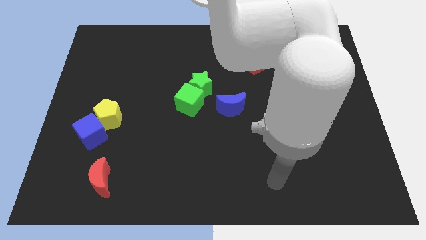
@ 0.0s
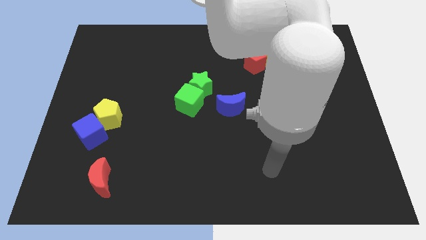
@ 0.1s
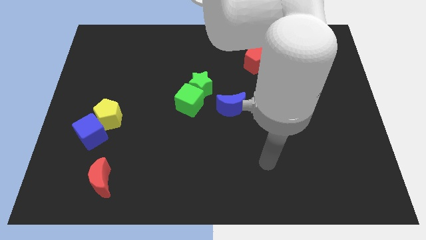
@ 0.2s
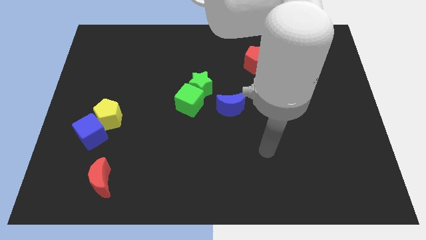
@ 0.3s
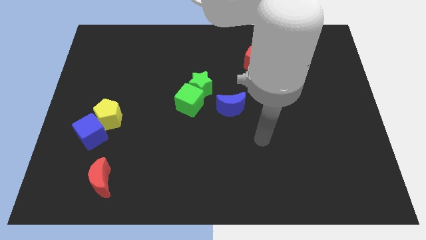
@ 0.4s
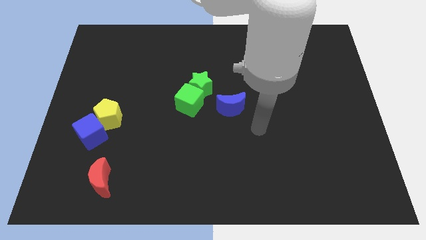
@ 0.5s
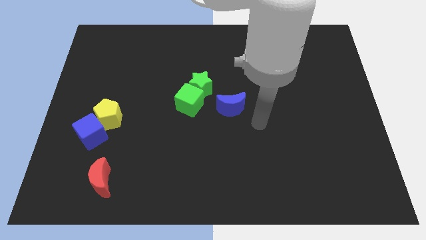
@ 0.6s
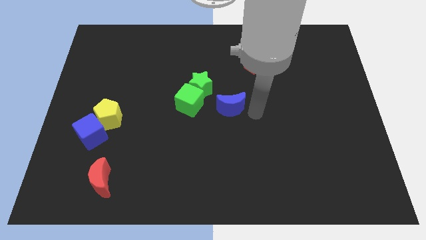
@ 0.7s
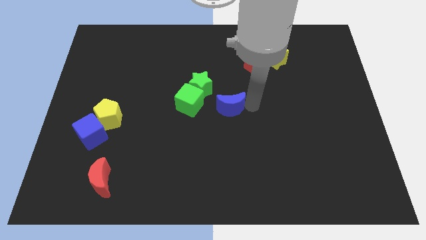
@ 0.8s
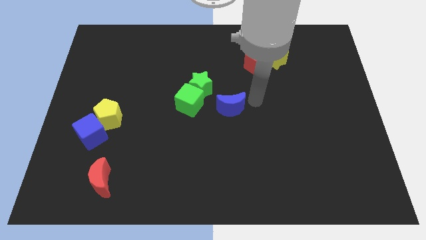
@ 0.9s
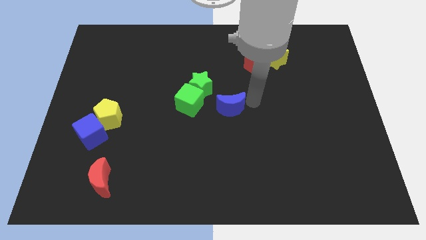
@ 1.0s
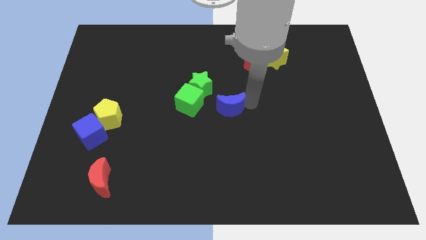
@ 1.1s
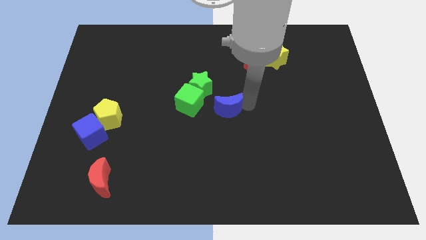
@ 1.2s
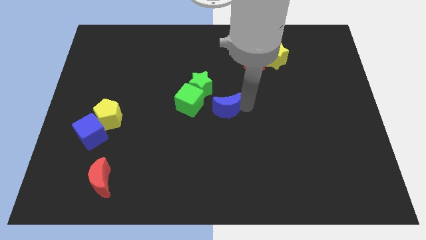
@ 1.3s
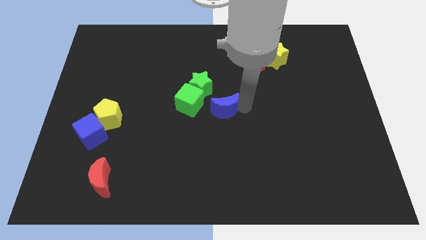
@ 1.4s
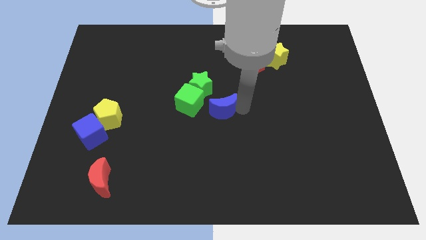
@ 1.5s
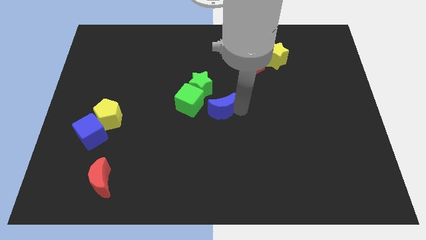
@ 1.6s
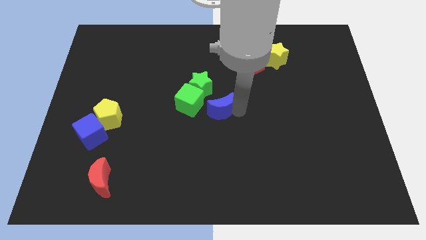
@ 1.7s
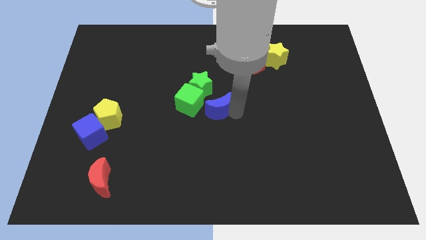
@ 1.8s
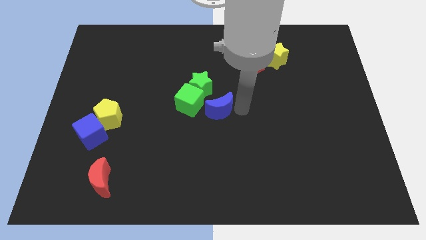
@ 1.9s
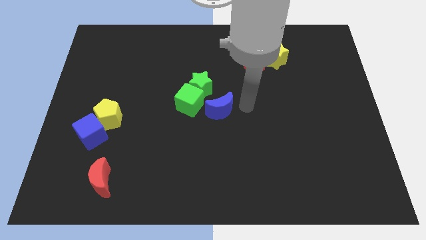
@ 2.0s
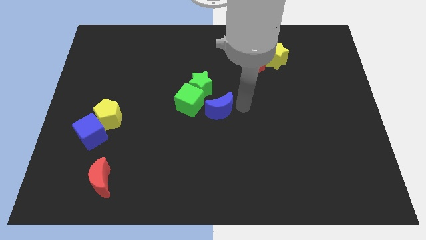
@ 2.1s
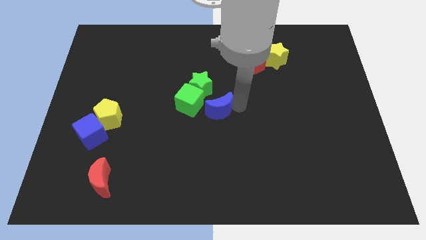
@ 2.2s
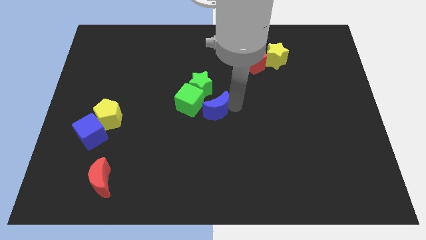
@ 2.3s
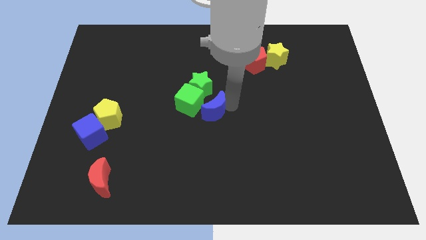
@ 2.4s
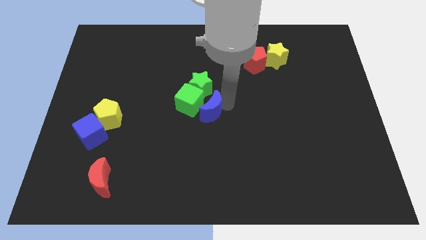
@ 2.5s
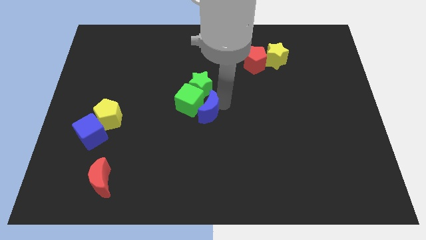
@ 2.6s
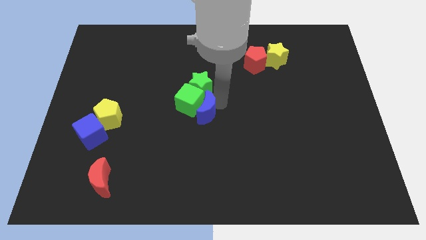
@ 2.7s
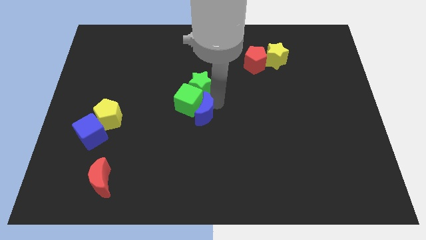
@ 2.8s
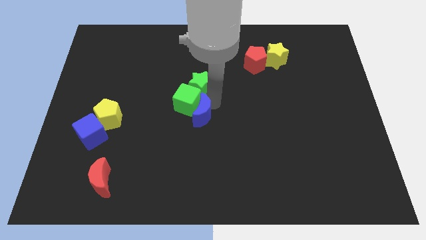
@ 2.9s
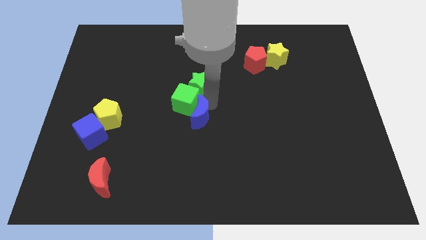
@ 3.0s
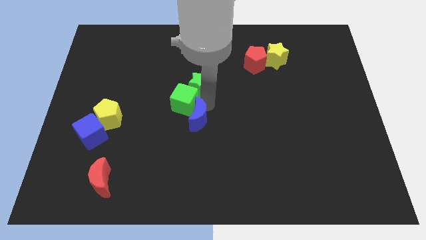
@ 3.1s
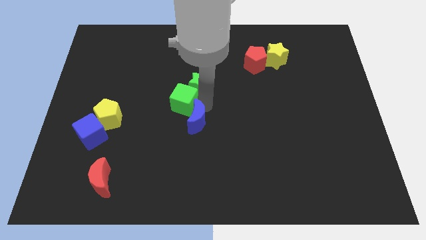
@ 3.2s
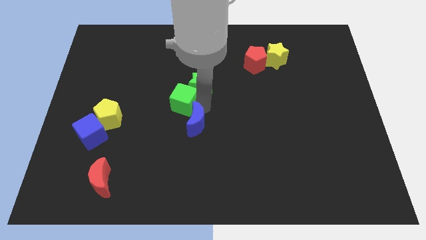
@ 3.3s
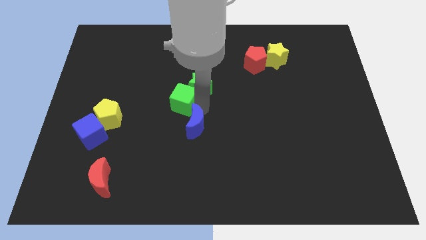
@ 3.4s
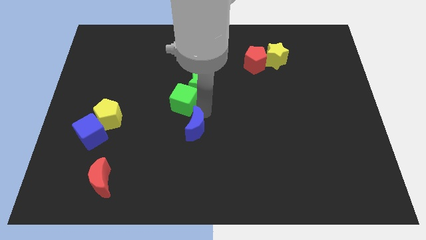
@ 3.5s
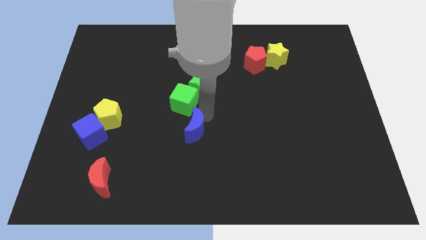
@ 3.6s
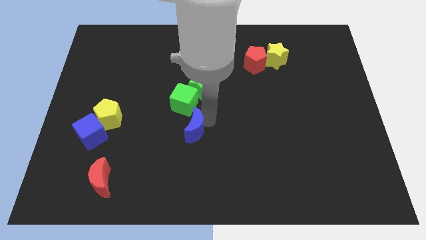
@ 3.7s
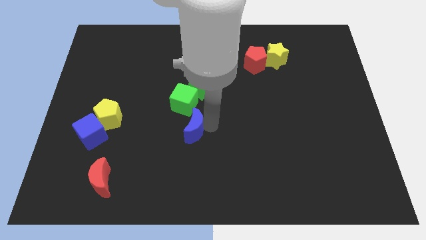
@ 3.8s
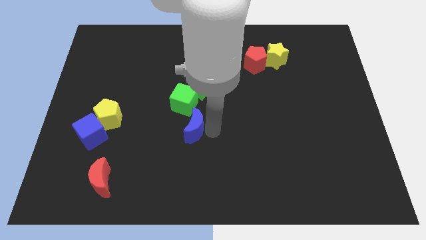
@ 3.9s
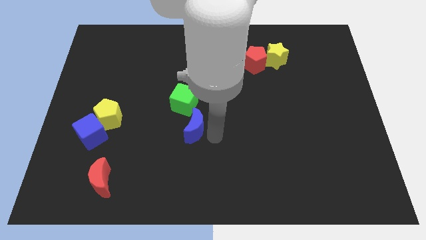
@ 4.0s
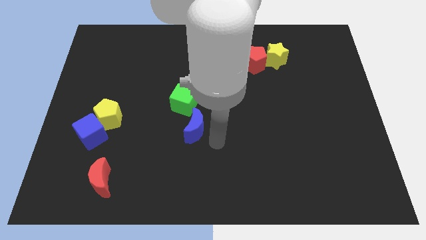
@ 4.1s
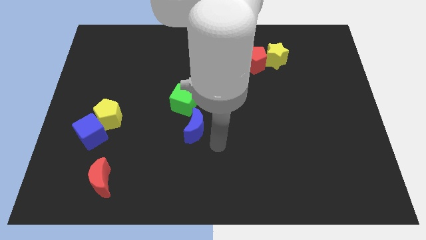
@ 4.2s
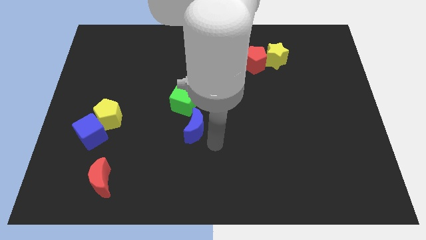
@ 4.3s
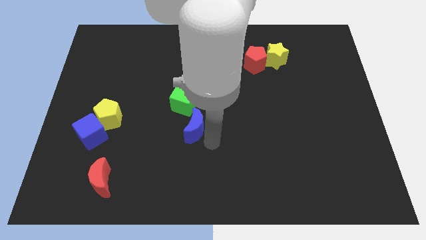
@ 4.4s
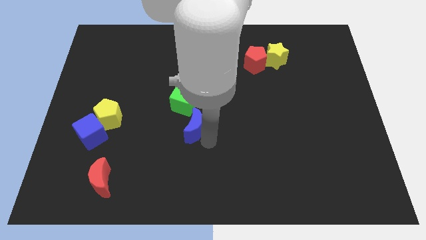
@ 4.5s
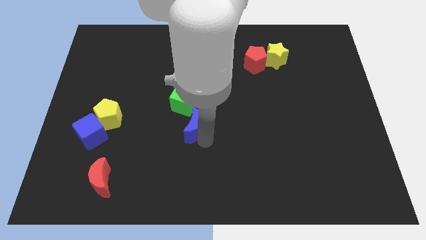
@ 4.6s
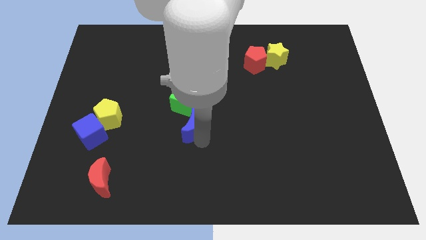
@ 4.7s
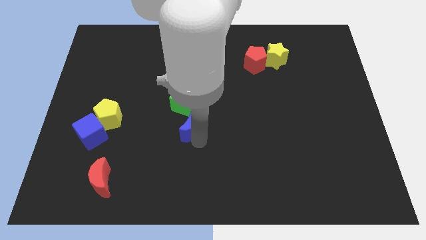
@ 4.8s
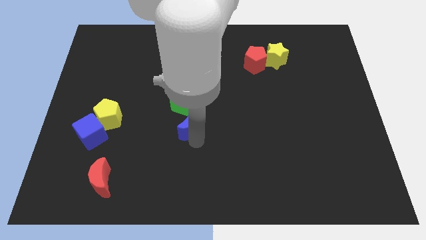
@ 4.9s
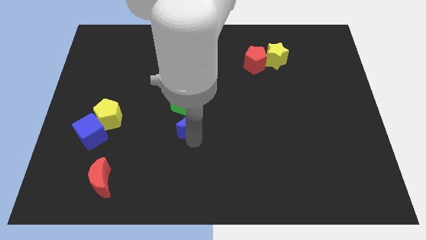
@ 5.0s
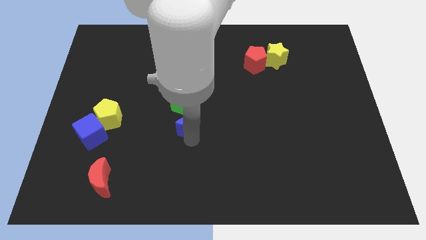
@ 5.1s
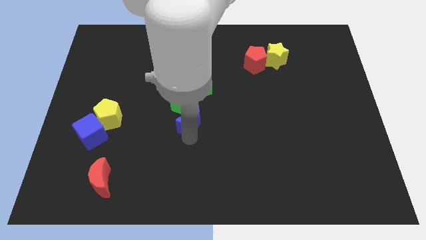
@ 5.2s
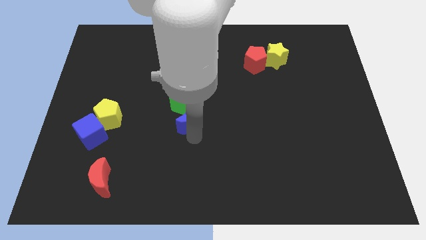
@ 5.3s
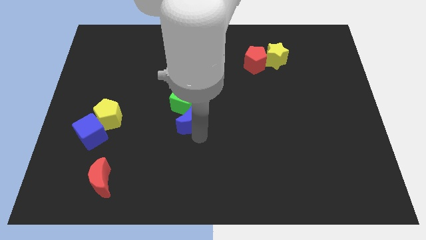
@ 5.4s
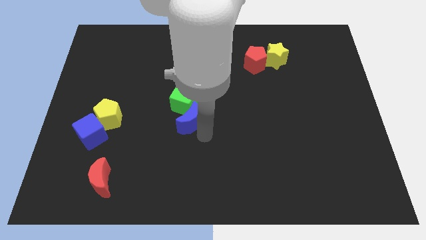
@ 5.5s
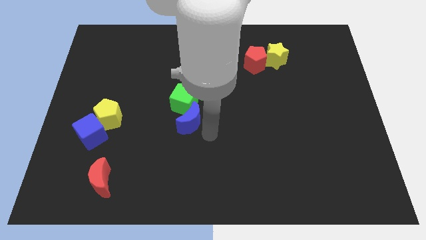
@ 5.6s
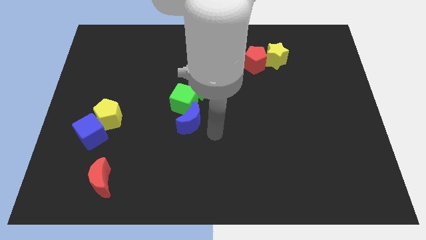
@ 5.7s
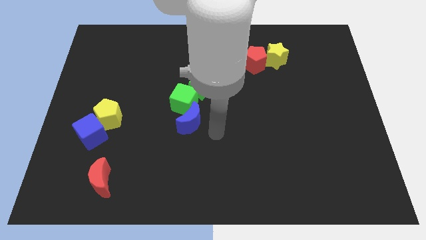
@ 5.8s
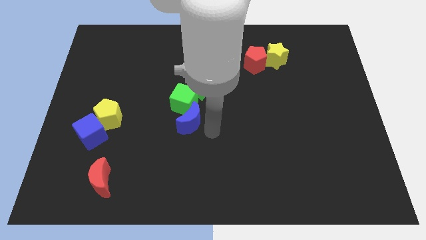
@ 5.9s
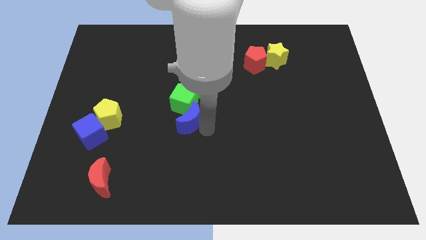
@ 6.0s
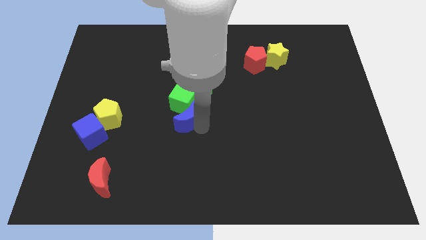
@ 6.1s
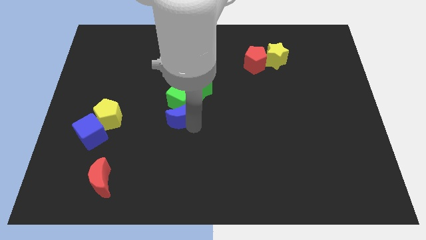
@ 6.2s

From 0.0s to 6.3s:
move the blue moon to the bottom left of the green star

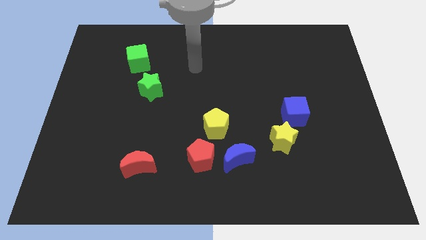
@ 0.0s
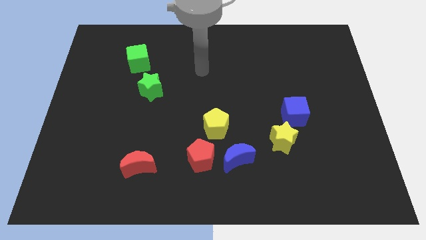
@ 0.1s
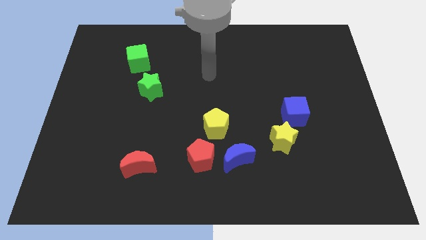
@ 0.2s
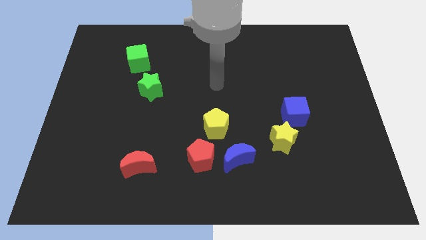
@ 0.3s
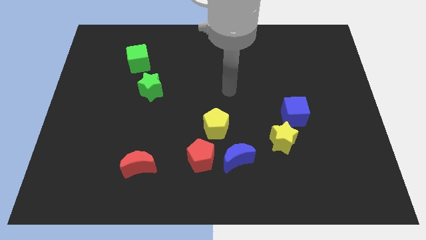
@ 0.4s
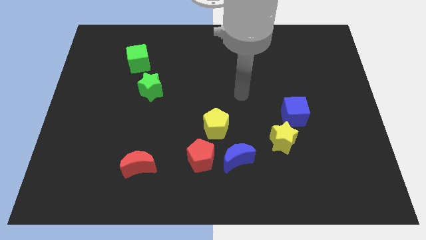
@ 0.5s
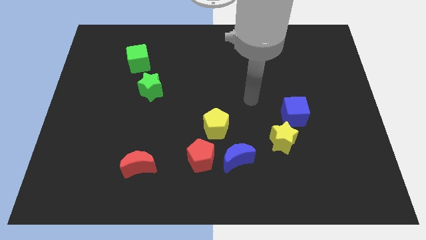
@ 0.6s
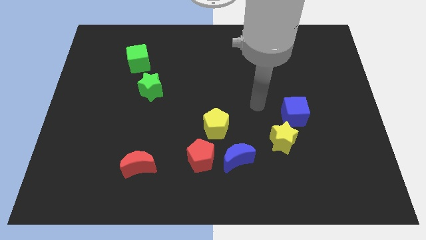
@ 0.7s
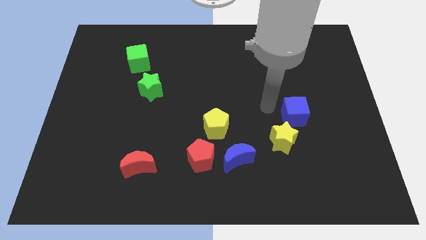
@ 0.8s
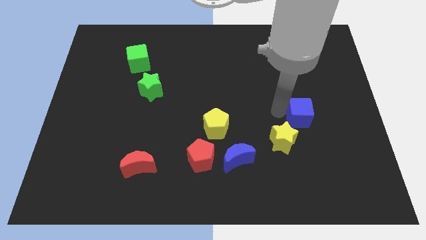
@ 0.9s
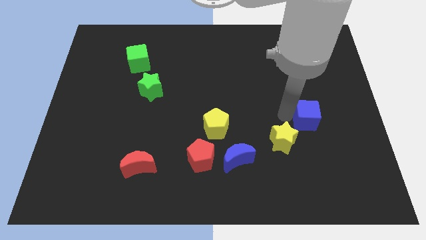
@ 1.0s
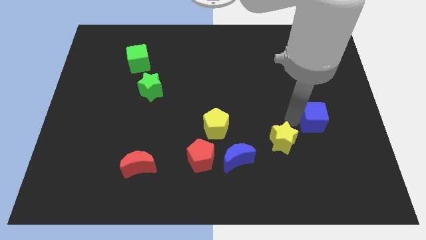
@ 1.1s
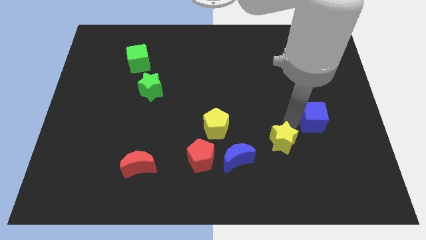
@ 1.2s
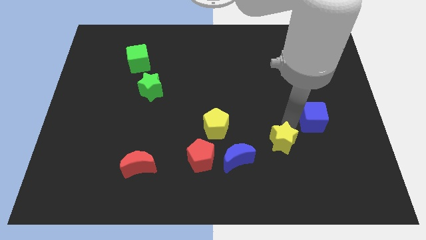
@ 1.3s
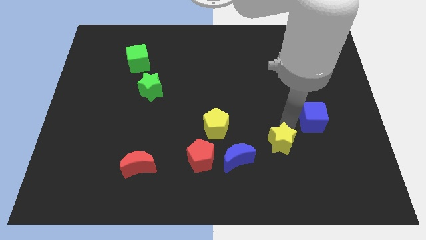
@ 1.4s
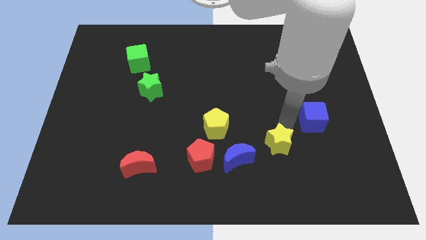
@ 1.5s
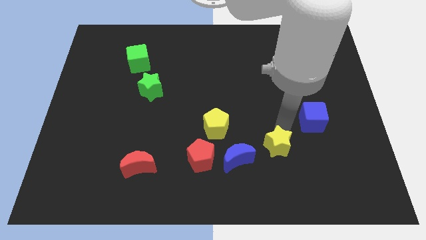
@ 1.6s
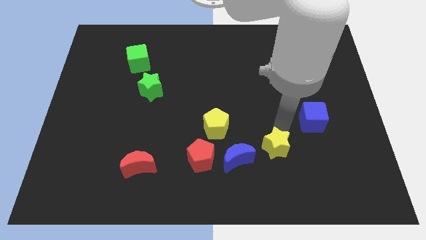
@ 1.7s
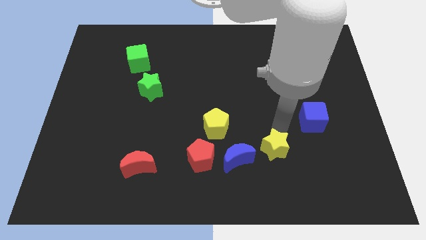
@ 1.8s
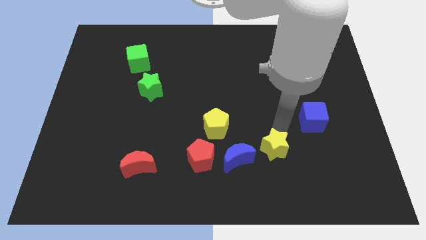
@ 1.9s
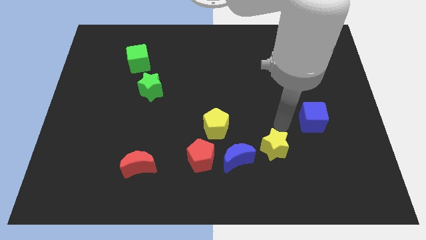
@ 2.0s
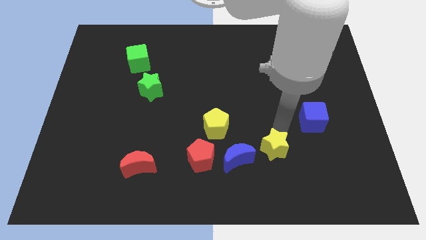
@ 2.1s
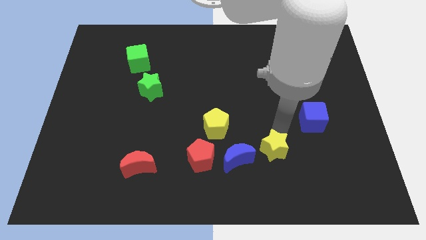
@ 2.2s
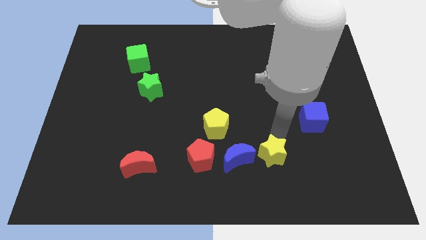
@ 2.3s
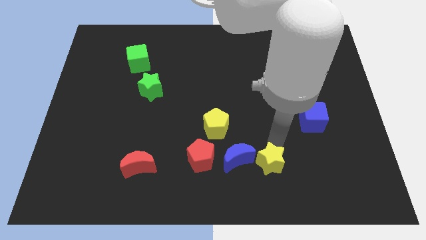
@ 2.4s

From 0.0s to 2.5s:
move the yellow star to the bottom right of the blue moon
